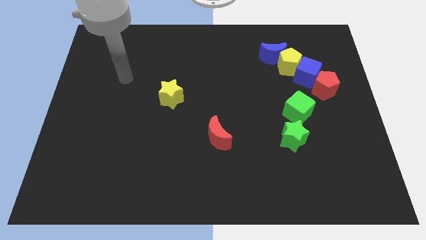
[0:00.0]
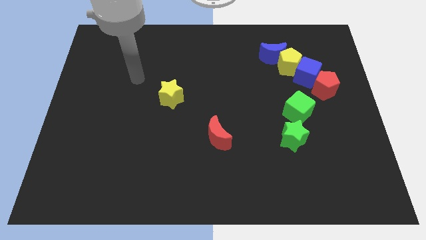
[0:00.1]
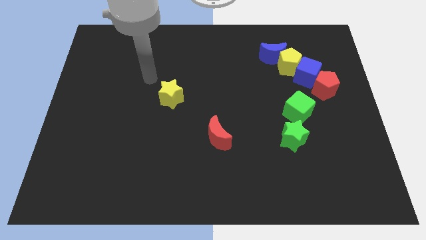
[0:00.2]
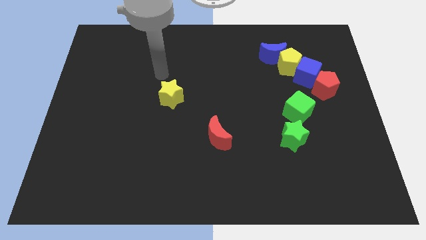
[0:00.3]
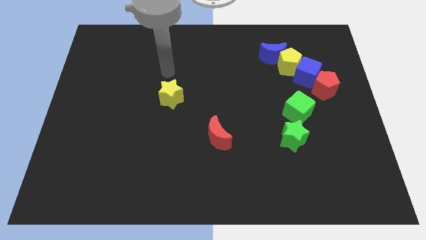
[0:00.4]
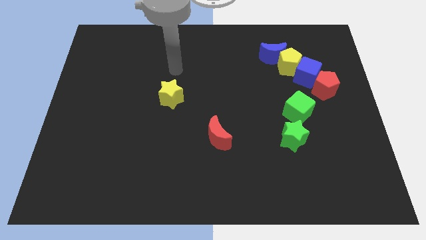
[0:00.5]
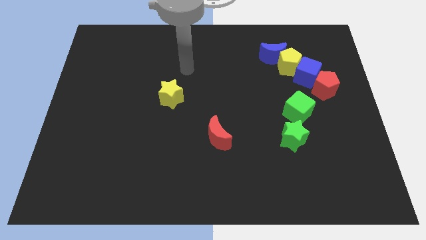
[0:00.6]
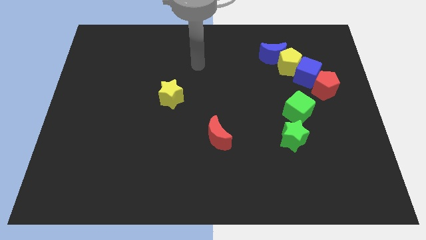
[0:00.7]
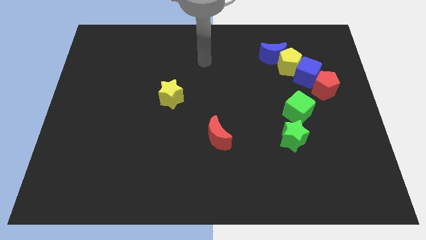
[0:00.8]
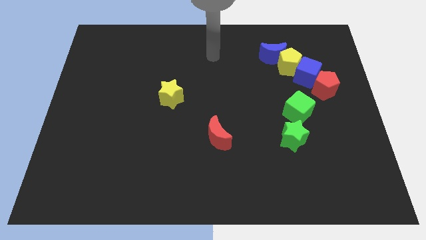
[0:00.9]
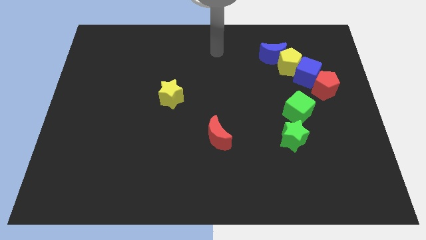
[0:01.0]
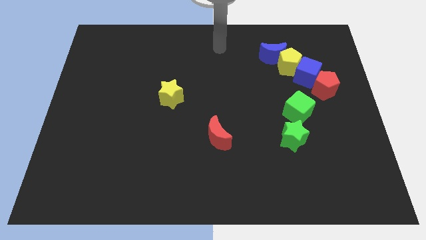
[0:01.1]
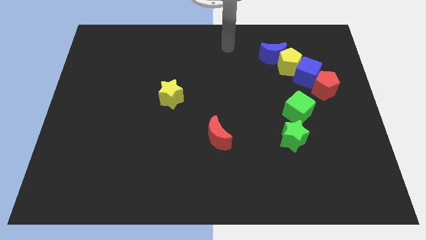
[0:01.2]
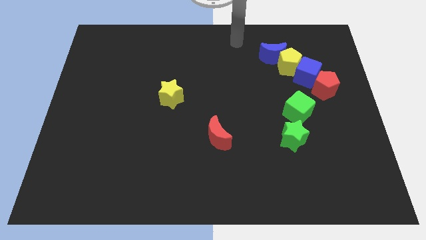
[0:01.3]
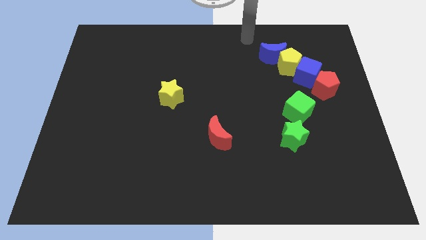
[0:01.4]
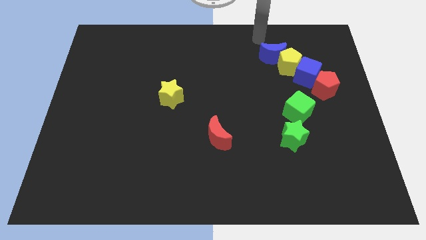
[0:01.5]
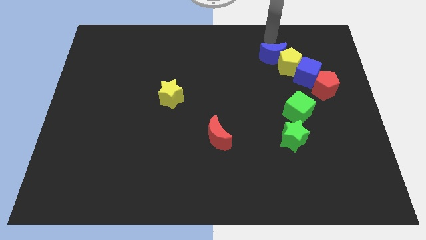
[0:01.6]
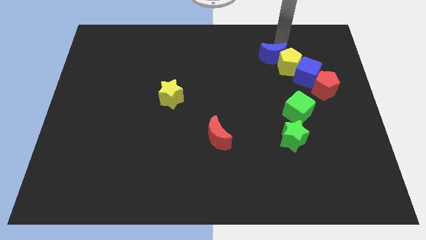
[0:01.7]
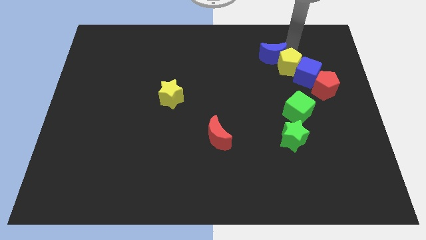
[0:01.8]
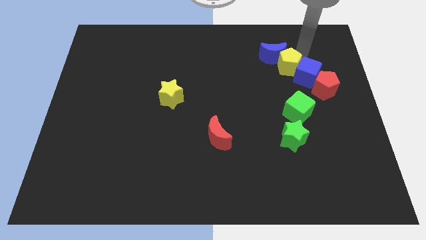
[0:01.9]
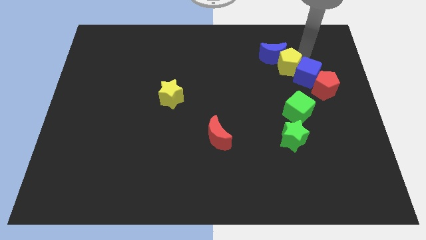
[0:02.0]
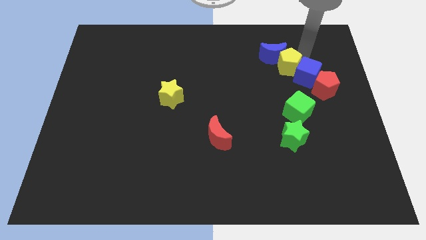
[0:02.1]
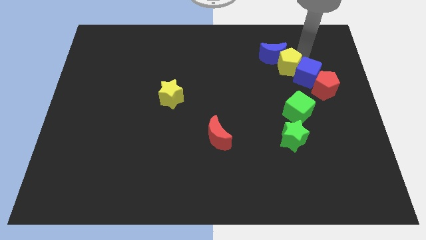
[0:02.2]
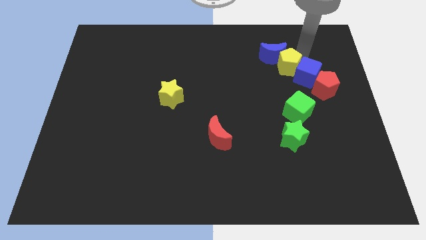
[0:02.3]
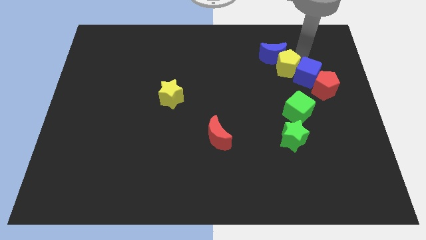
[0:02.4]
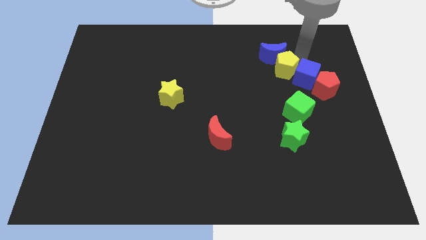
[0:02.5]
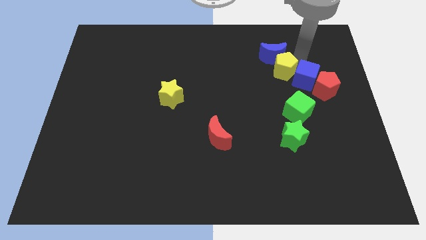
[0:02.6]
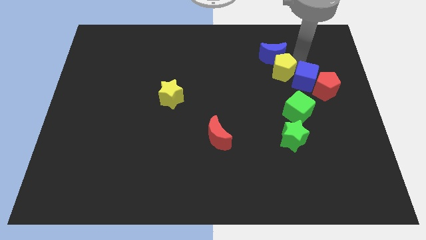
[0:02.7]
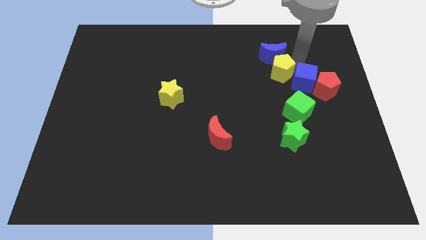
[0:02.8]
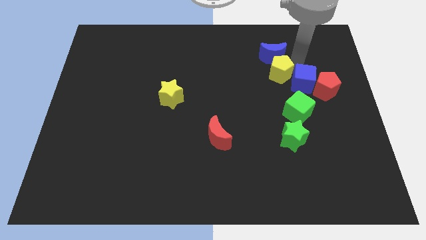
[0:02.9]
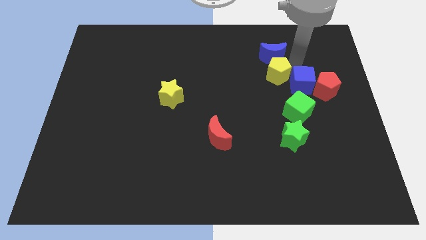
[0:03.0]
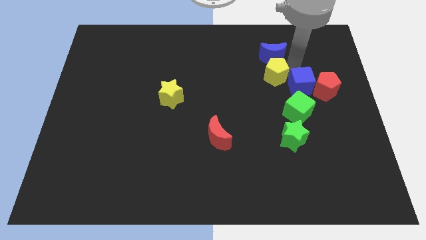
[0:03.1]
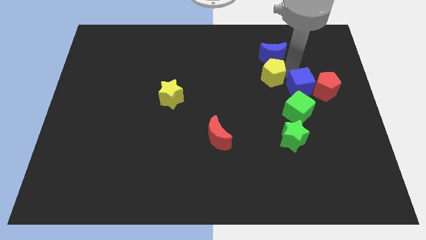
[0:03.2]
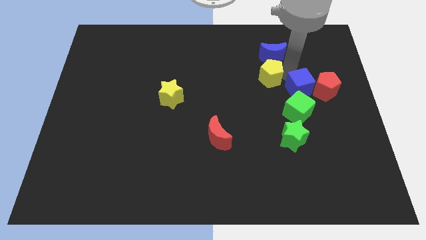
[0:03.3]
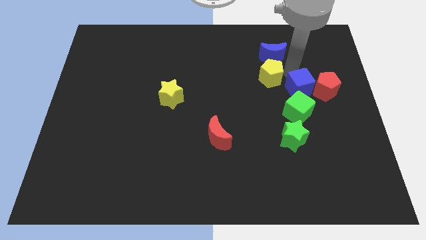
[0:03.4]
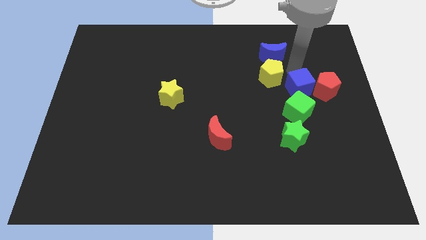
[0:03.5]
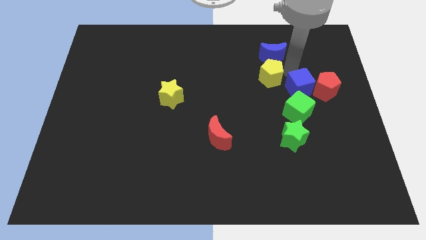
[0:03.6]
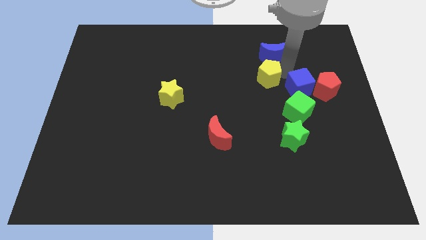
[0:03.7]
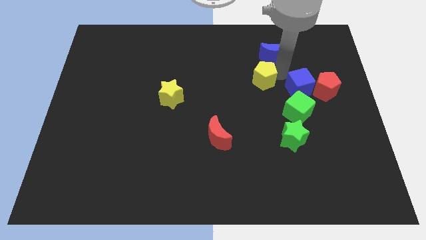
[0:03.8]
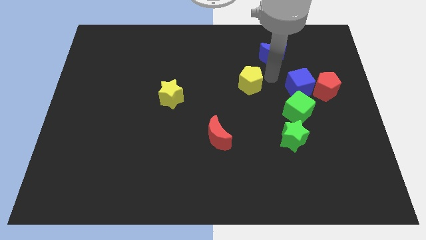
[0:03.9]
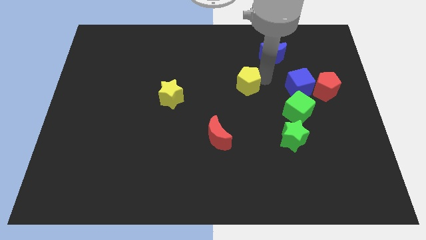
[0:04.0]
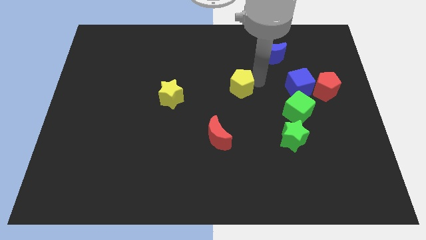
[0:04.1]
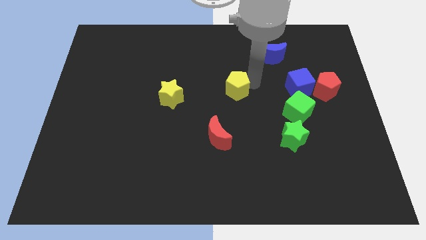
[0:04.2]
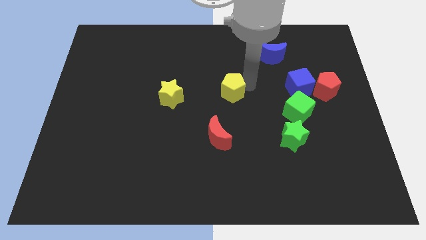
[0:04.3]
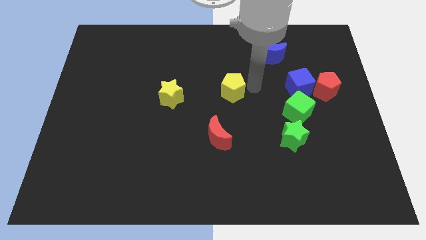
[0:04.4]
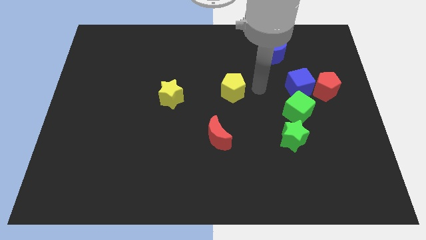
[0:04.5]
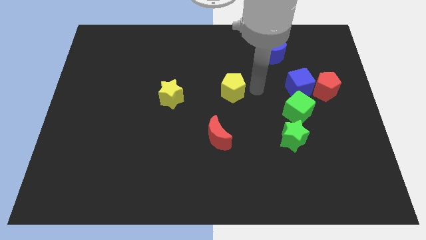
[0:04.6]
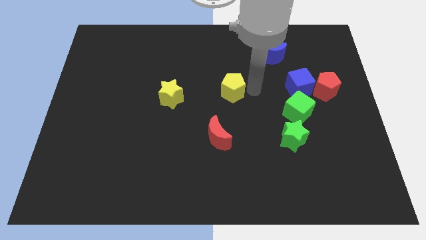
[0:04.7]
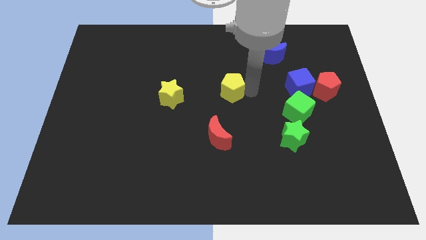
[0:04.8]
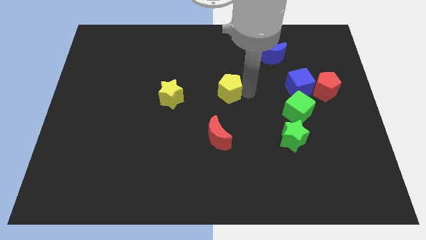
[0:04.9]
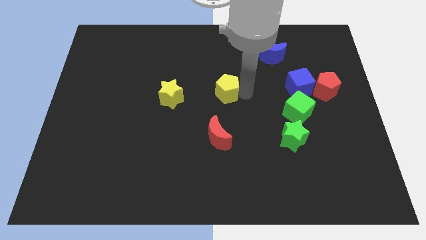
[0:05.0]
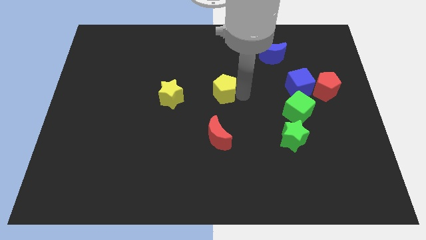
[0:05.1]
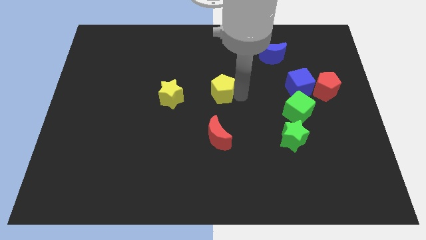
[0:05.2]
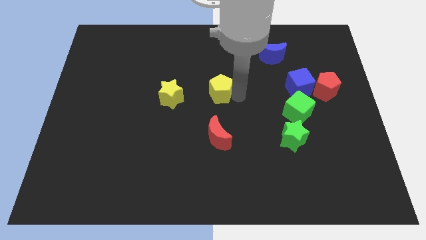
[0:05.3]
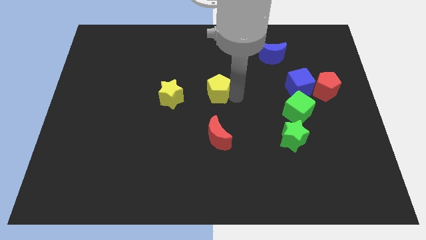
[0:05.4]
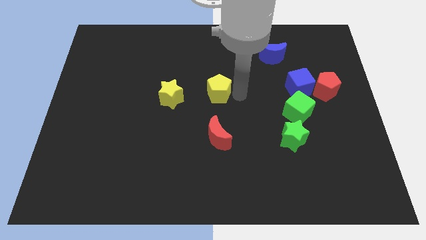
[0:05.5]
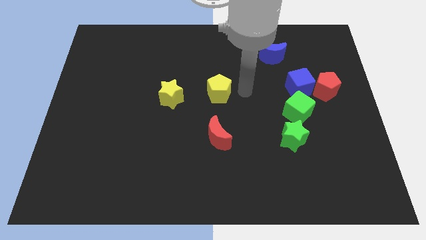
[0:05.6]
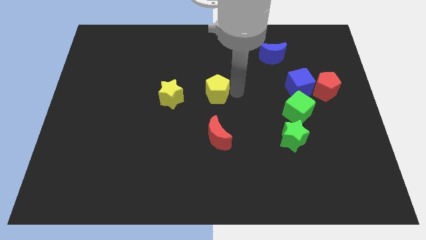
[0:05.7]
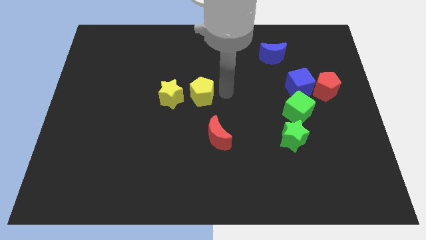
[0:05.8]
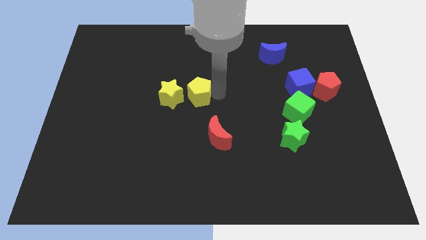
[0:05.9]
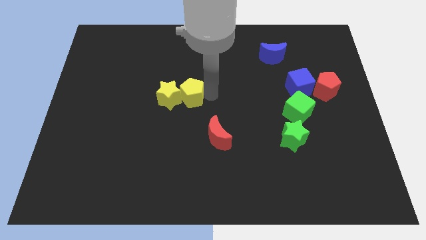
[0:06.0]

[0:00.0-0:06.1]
slide the yellow pentagon towards the yellow star
